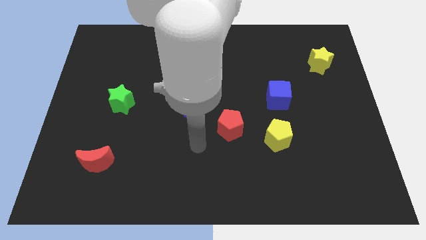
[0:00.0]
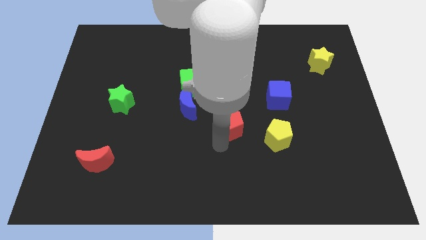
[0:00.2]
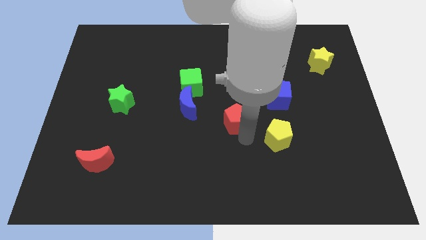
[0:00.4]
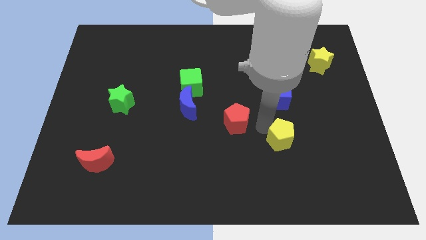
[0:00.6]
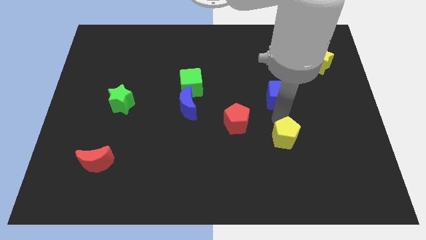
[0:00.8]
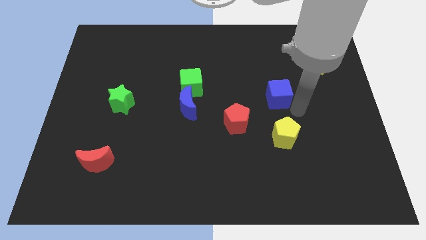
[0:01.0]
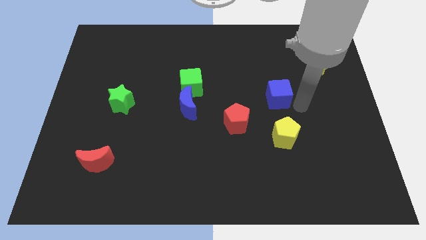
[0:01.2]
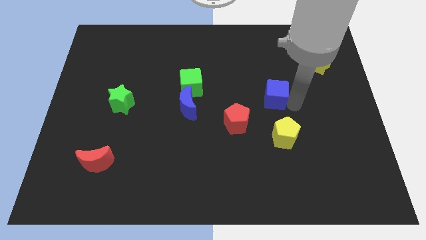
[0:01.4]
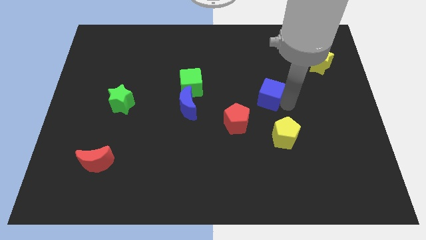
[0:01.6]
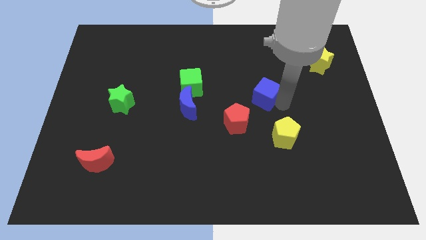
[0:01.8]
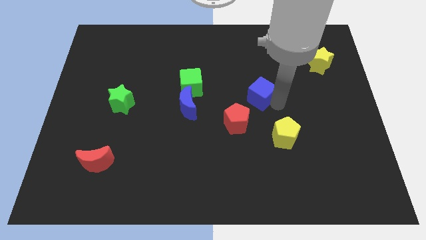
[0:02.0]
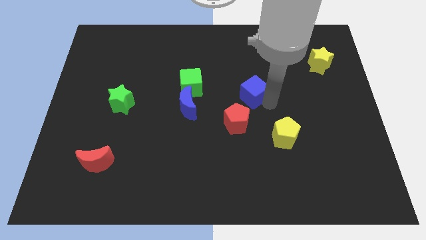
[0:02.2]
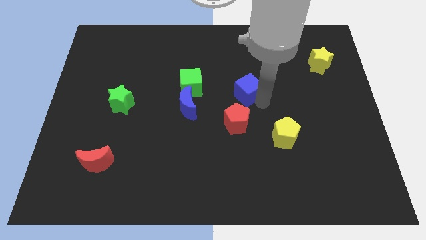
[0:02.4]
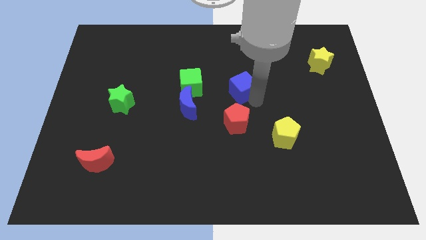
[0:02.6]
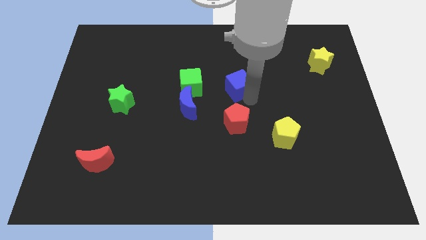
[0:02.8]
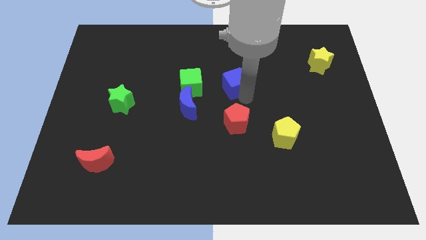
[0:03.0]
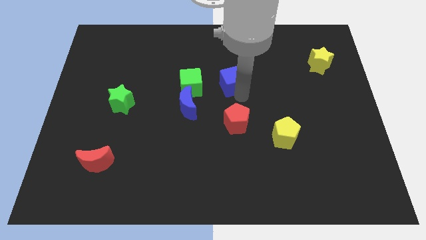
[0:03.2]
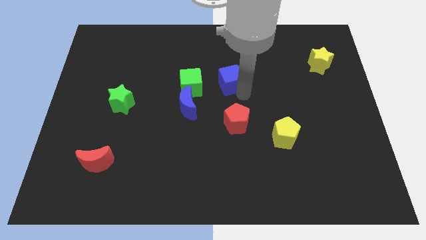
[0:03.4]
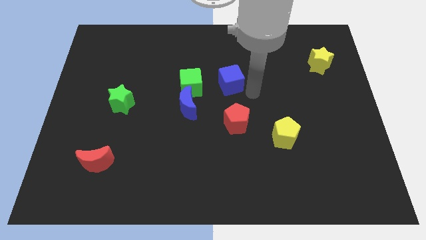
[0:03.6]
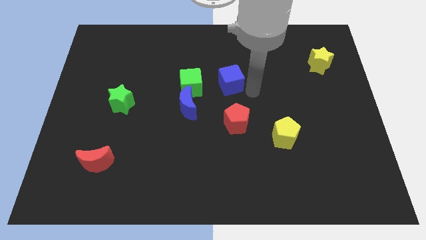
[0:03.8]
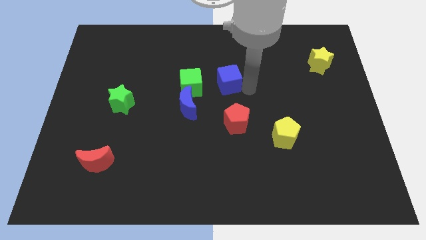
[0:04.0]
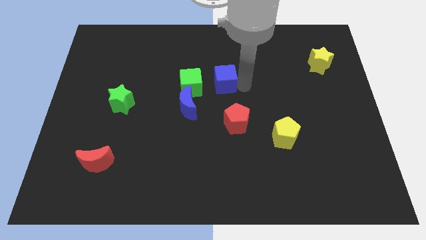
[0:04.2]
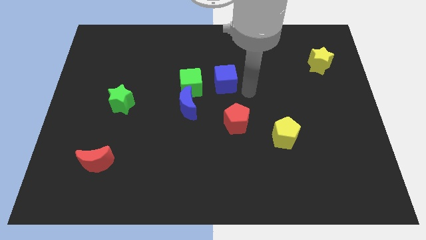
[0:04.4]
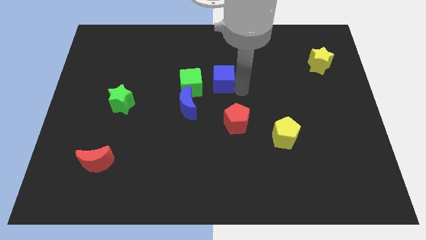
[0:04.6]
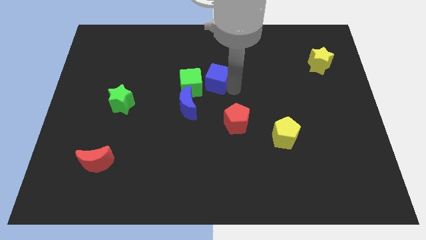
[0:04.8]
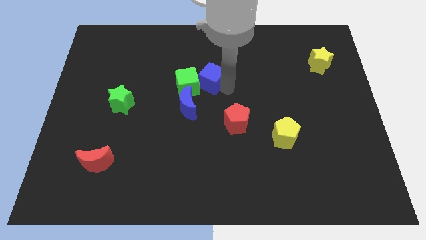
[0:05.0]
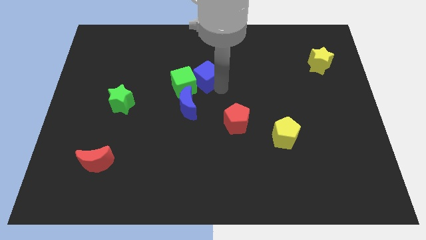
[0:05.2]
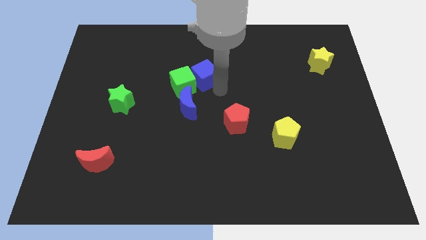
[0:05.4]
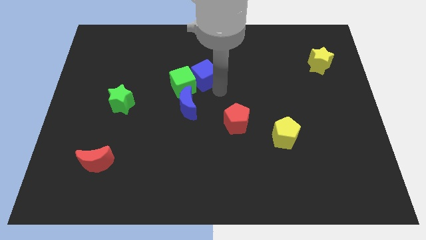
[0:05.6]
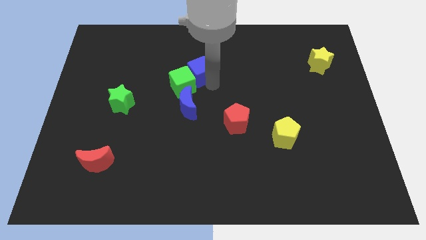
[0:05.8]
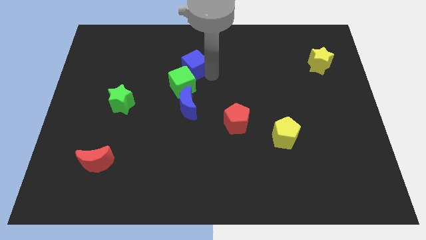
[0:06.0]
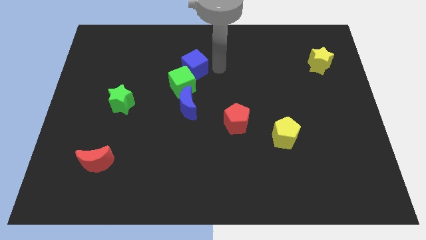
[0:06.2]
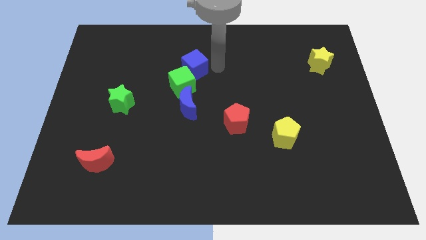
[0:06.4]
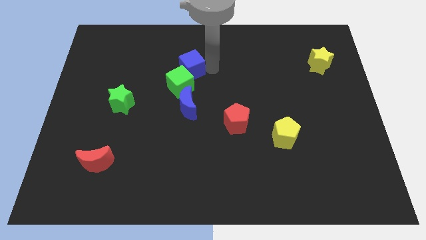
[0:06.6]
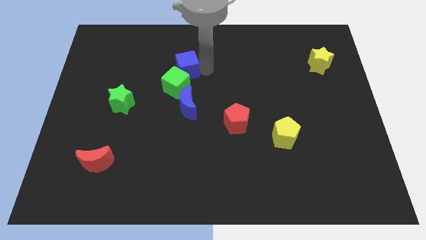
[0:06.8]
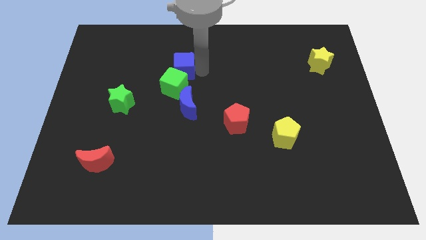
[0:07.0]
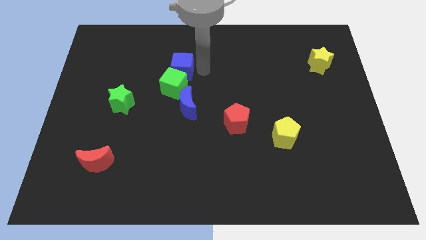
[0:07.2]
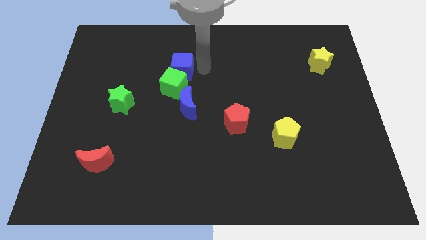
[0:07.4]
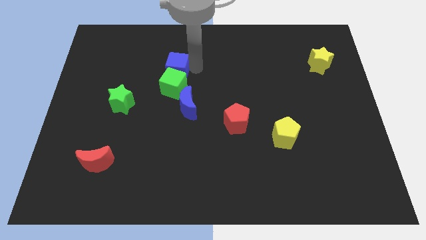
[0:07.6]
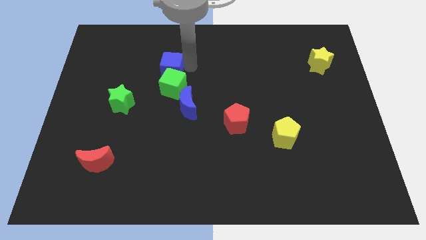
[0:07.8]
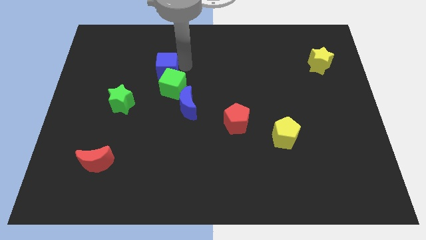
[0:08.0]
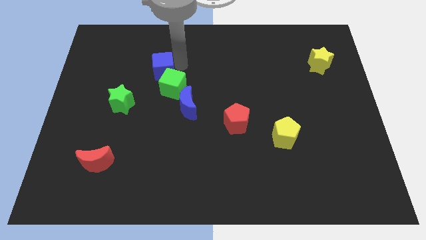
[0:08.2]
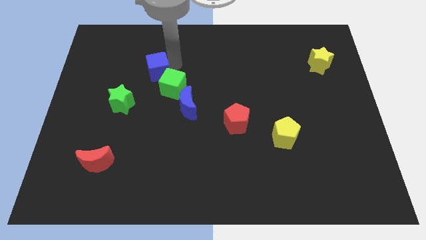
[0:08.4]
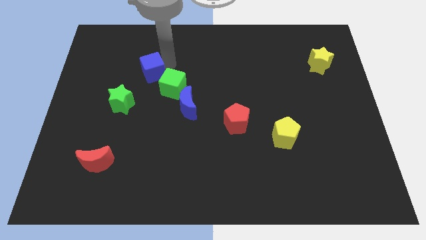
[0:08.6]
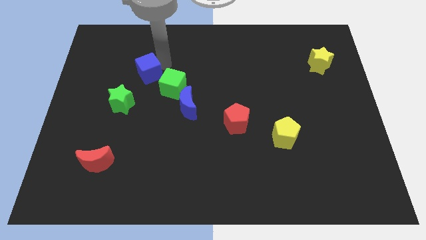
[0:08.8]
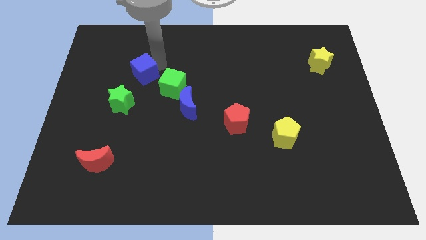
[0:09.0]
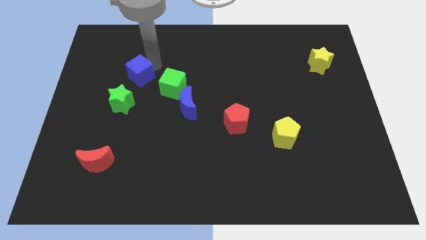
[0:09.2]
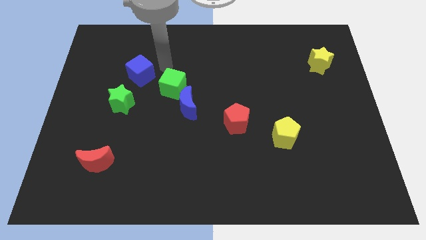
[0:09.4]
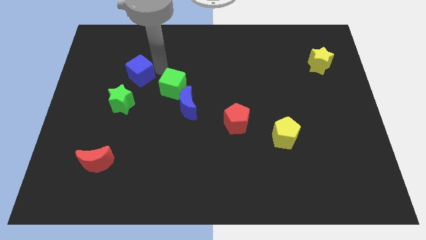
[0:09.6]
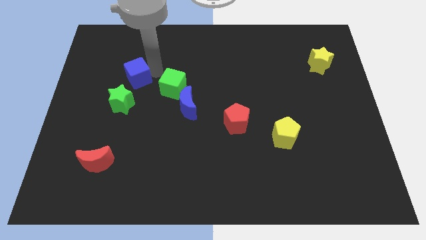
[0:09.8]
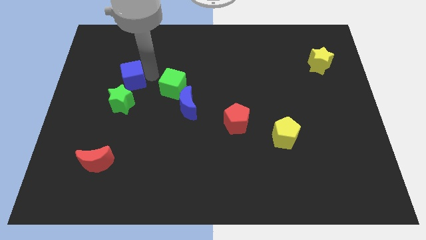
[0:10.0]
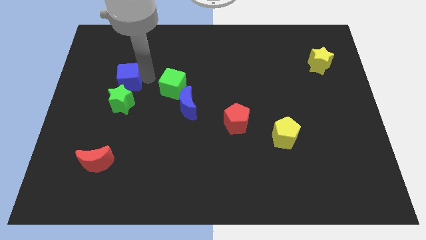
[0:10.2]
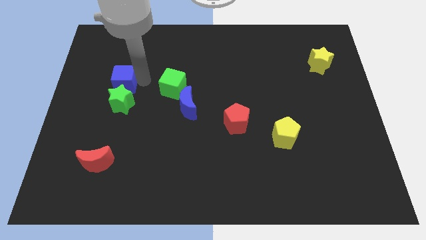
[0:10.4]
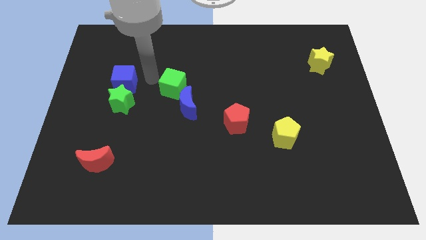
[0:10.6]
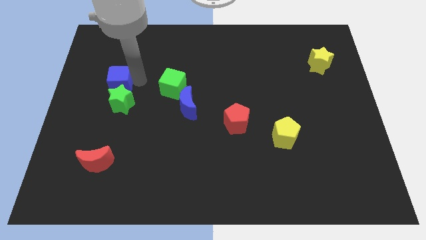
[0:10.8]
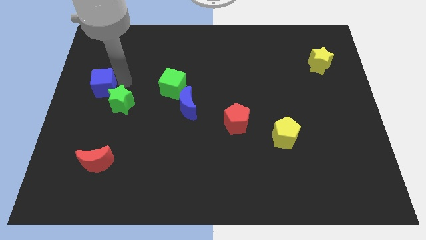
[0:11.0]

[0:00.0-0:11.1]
put the blue cube to the center left

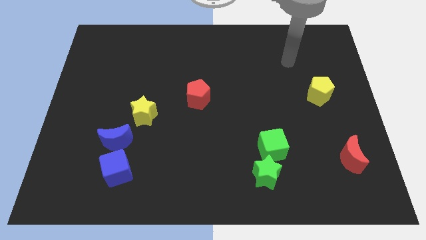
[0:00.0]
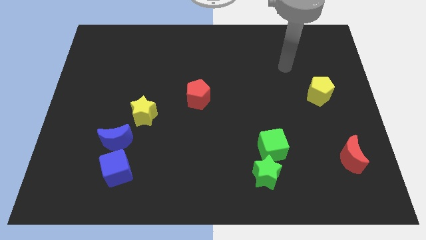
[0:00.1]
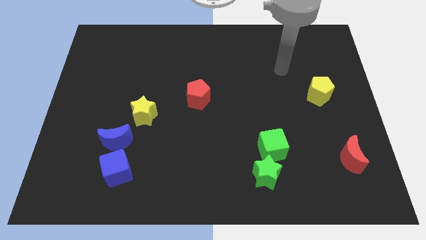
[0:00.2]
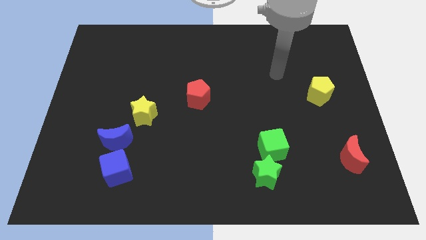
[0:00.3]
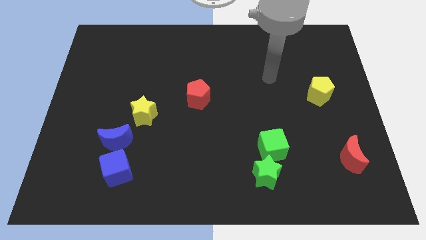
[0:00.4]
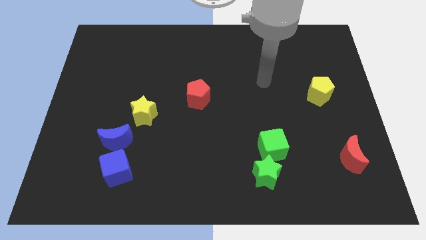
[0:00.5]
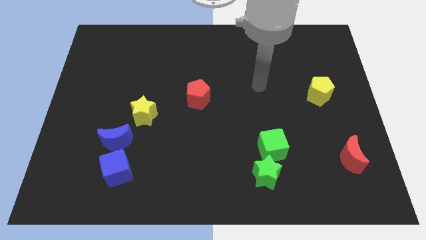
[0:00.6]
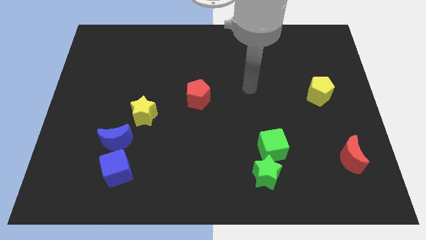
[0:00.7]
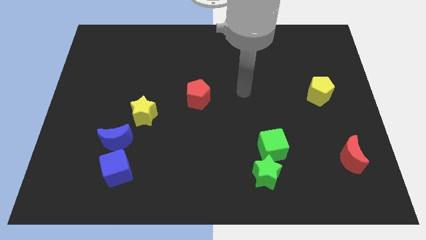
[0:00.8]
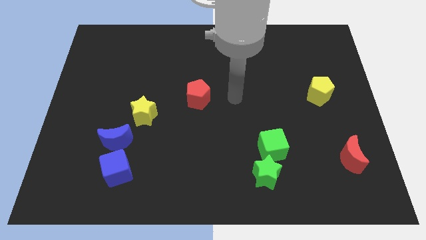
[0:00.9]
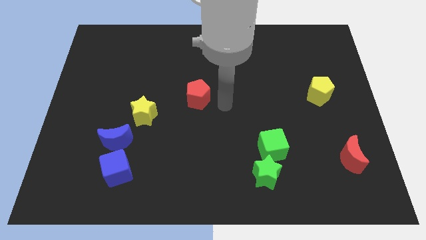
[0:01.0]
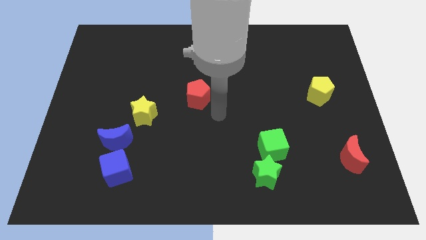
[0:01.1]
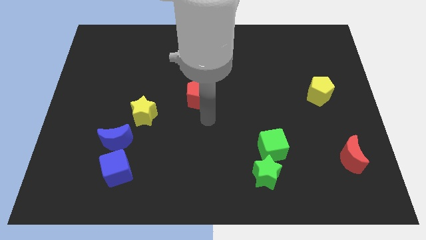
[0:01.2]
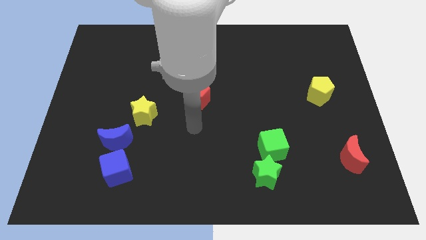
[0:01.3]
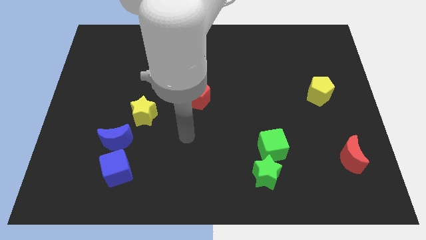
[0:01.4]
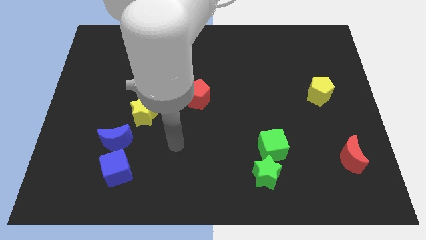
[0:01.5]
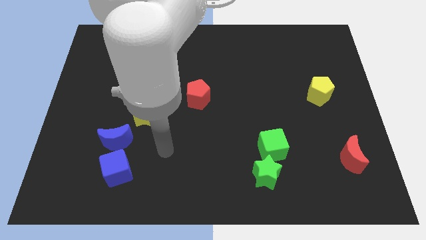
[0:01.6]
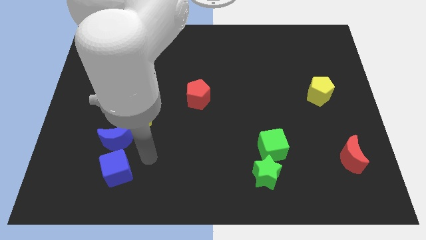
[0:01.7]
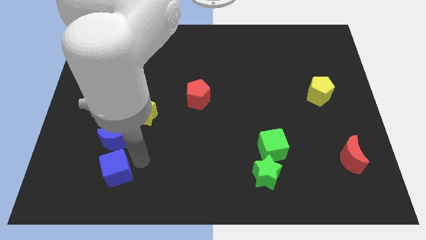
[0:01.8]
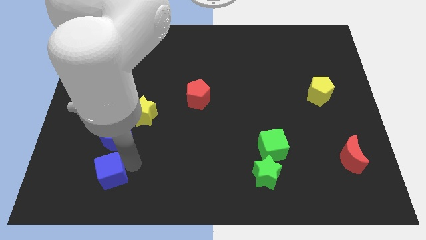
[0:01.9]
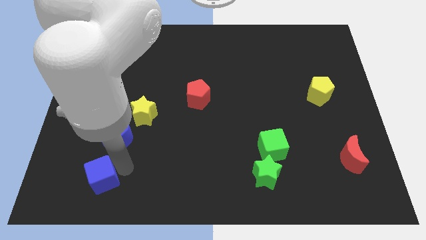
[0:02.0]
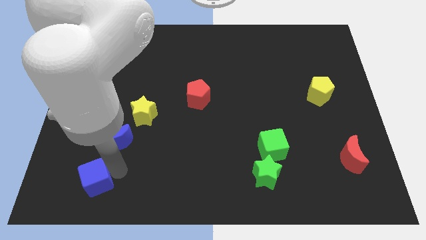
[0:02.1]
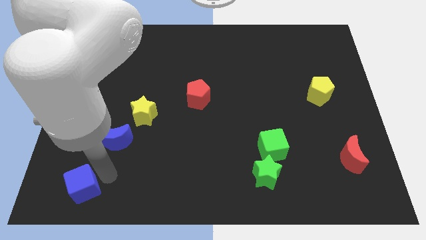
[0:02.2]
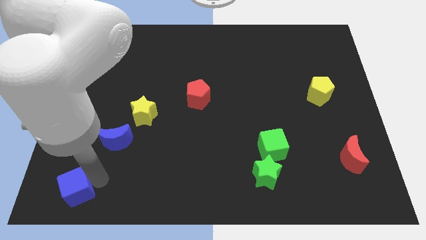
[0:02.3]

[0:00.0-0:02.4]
put the blue cube to the bottom left of the board
